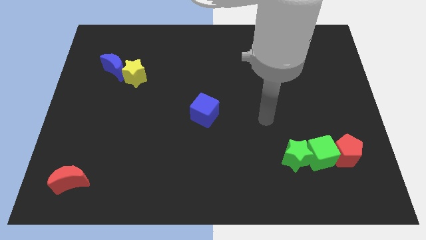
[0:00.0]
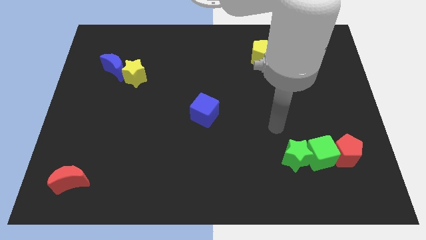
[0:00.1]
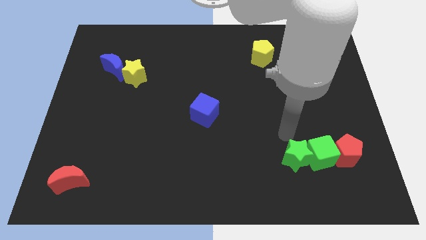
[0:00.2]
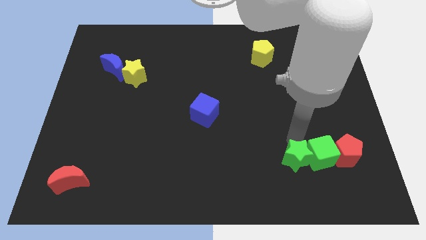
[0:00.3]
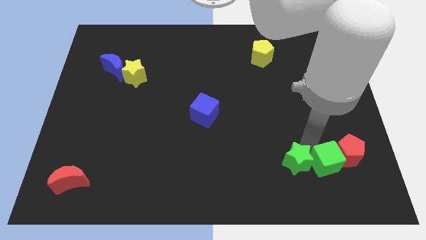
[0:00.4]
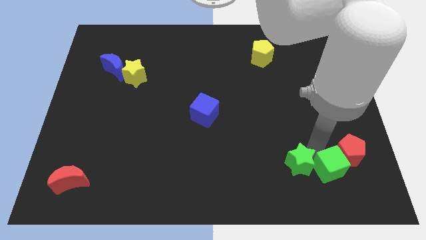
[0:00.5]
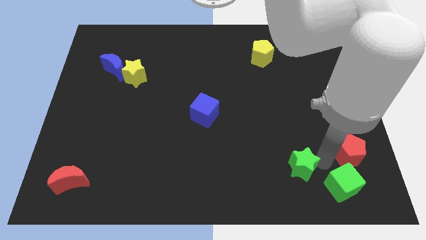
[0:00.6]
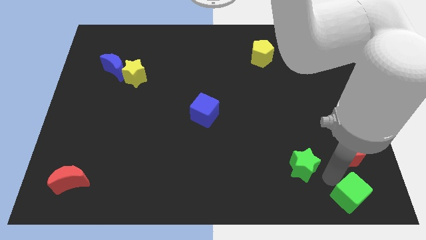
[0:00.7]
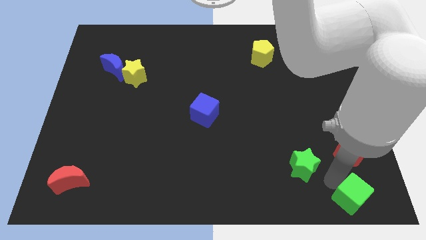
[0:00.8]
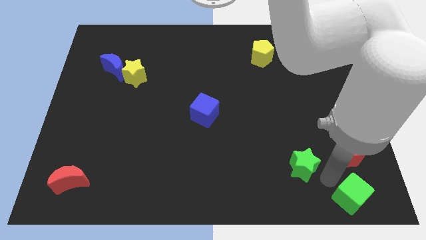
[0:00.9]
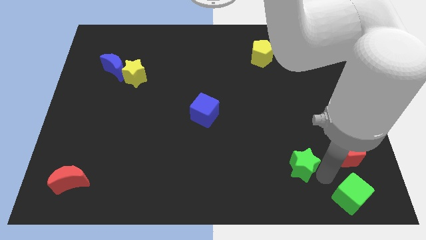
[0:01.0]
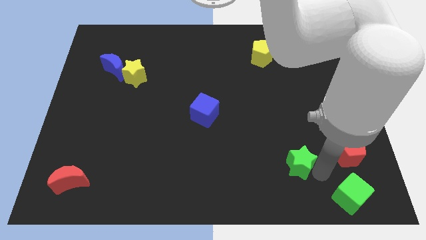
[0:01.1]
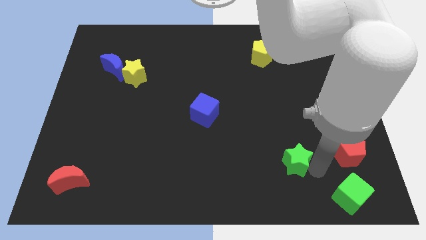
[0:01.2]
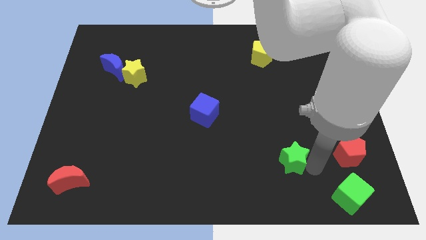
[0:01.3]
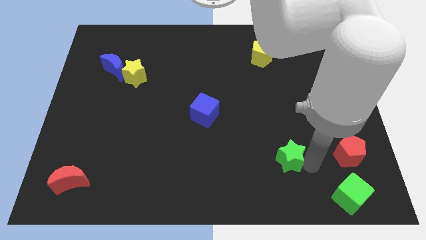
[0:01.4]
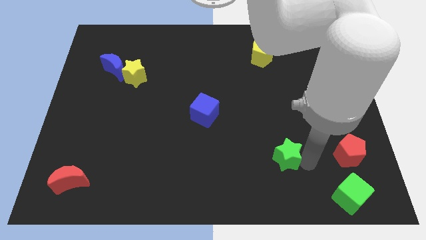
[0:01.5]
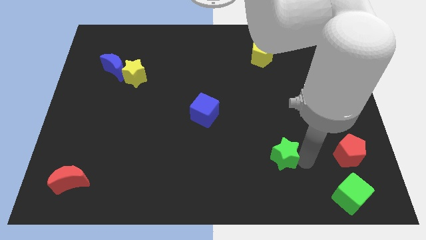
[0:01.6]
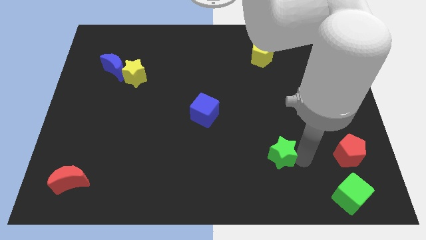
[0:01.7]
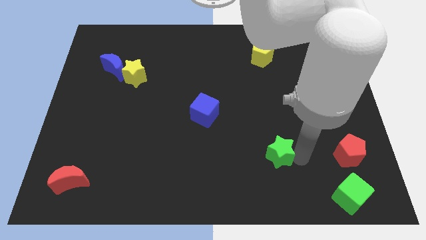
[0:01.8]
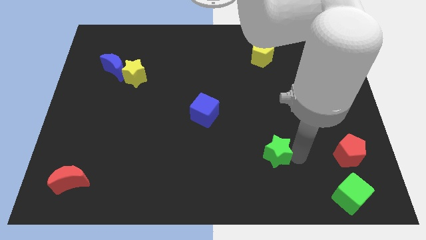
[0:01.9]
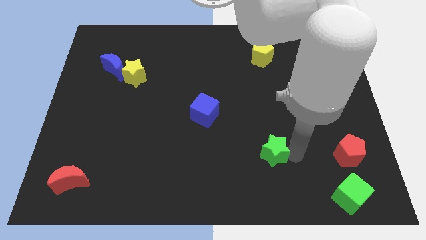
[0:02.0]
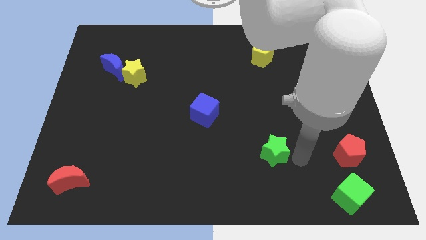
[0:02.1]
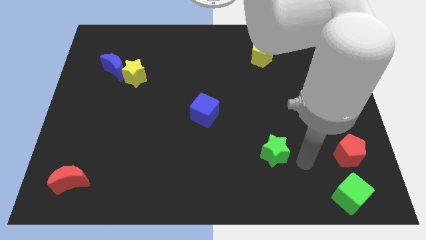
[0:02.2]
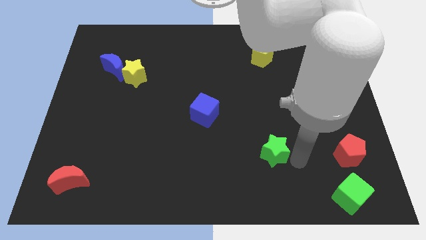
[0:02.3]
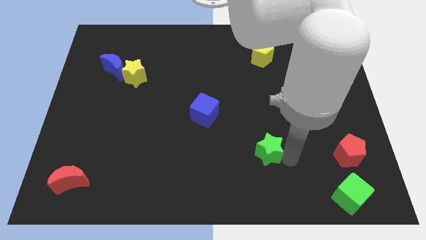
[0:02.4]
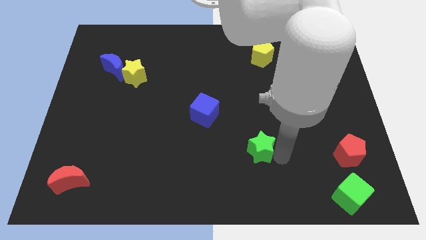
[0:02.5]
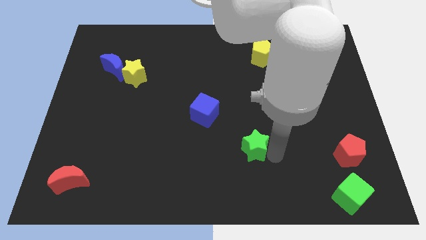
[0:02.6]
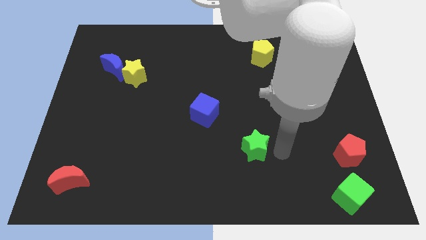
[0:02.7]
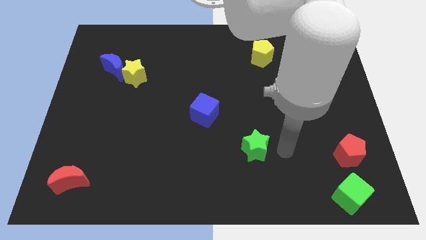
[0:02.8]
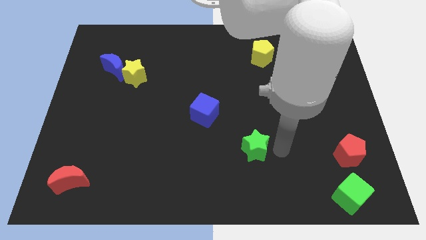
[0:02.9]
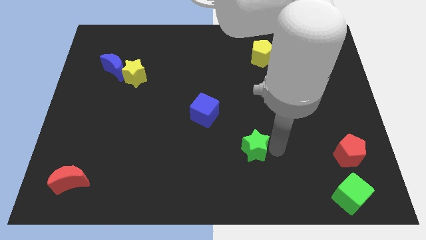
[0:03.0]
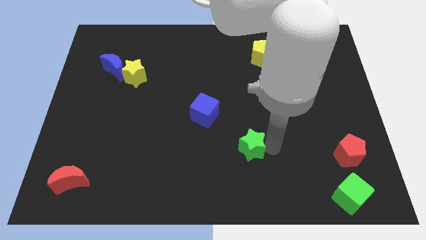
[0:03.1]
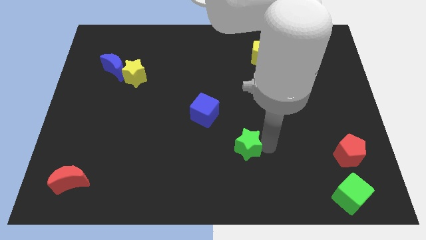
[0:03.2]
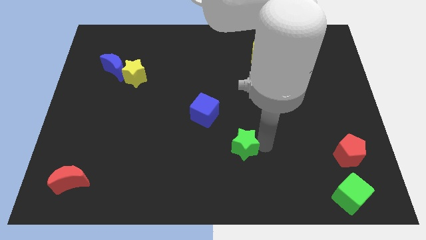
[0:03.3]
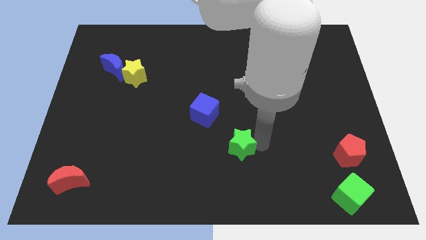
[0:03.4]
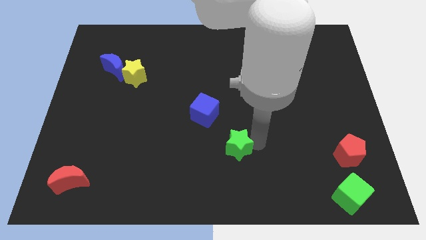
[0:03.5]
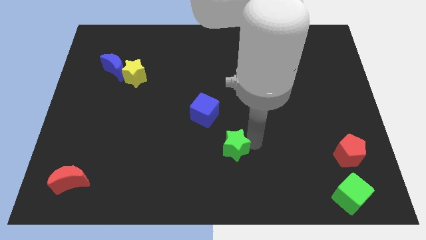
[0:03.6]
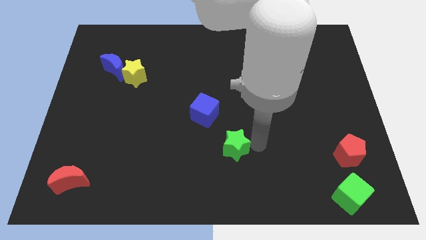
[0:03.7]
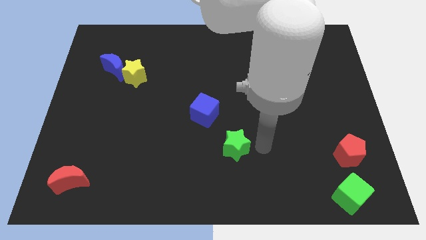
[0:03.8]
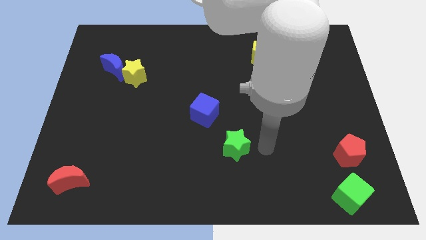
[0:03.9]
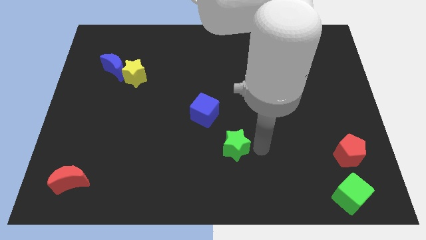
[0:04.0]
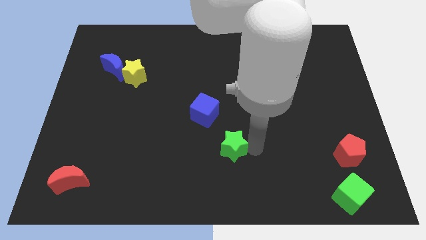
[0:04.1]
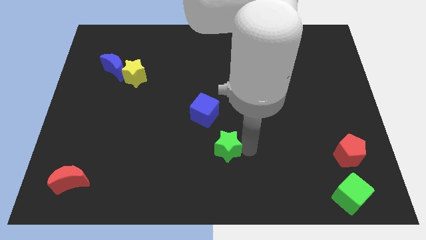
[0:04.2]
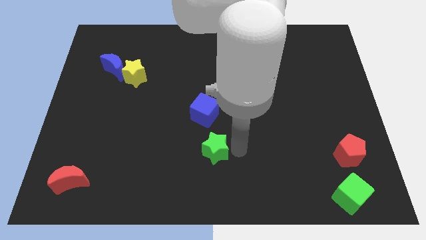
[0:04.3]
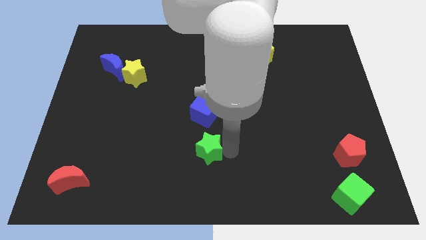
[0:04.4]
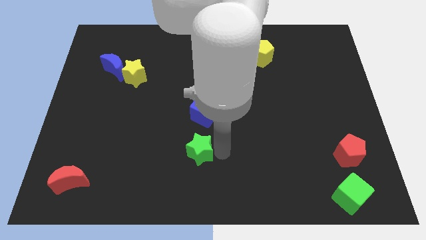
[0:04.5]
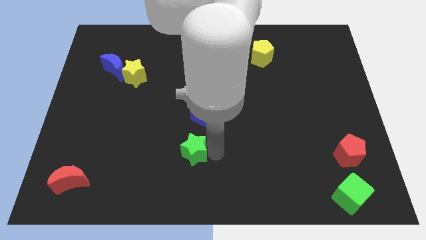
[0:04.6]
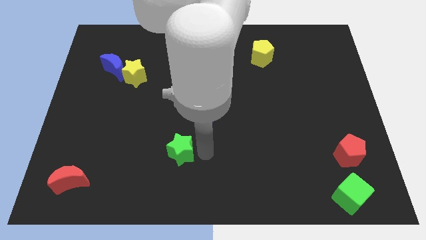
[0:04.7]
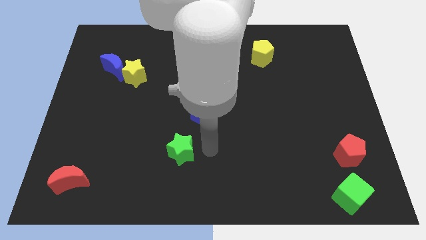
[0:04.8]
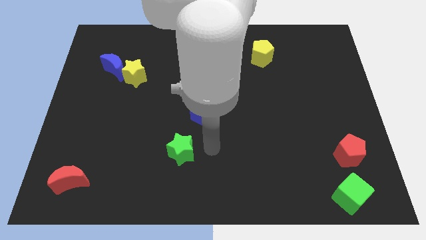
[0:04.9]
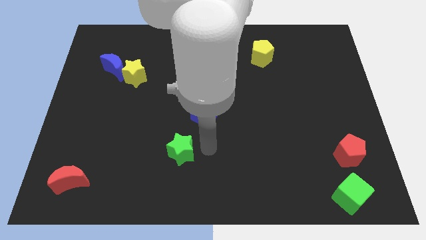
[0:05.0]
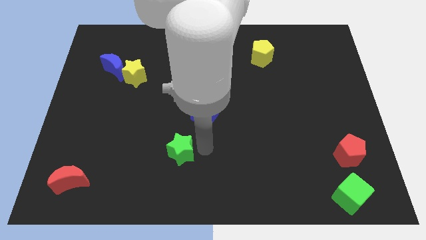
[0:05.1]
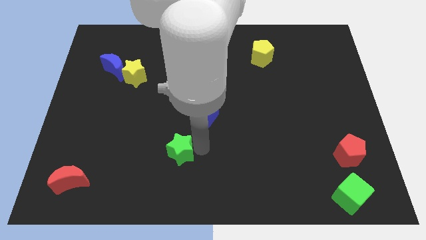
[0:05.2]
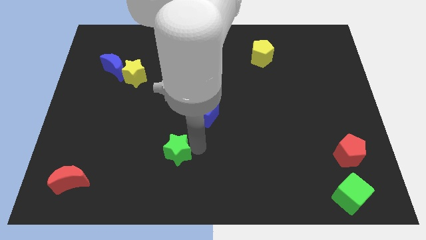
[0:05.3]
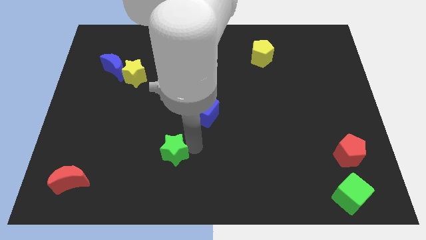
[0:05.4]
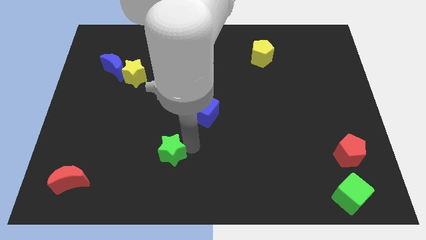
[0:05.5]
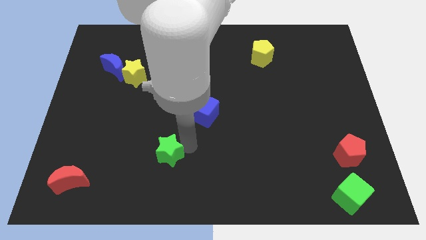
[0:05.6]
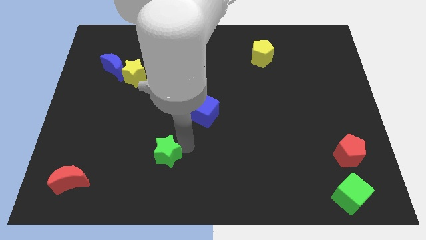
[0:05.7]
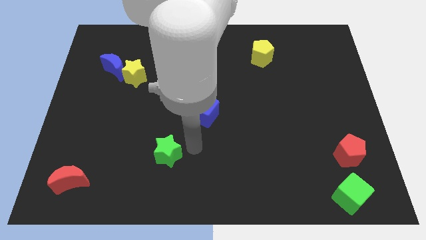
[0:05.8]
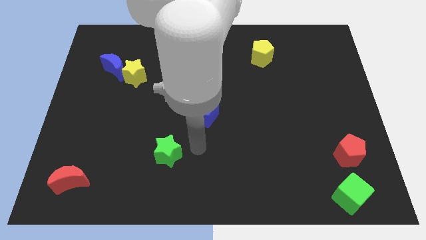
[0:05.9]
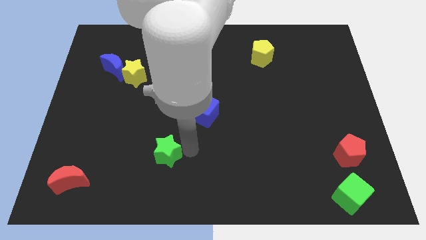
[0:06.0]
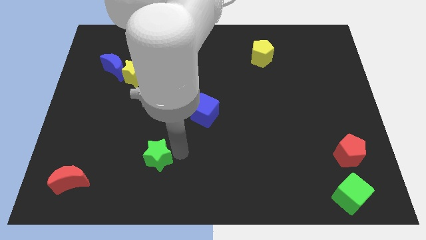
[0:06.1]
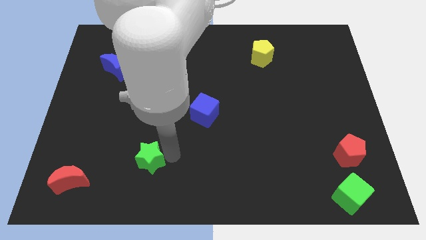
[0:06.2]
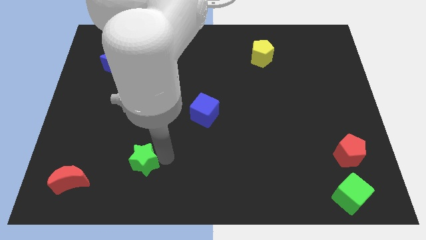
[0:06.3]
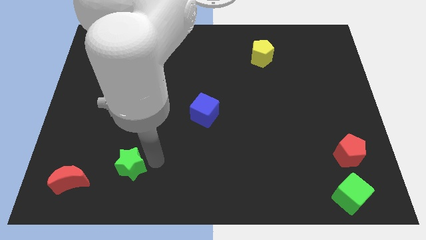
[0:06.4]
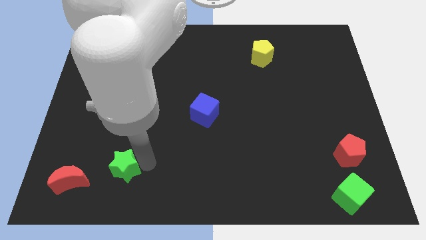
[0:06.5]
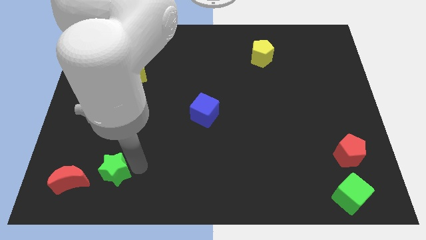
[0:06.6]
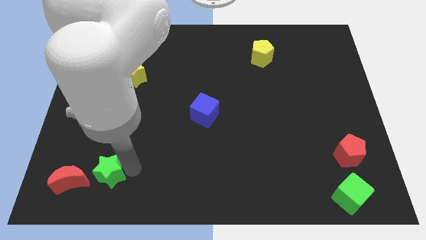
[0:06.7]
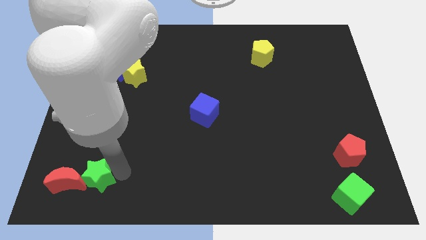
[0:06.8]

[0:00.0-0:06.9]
slide the green star next to the red moon

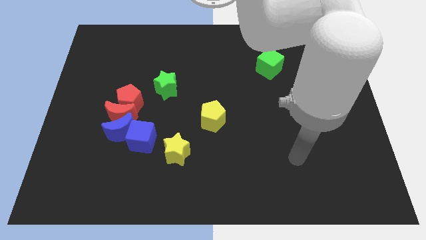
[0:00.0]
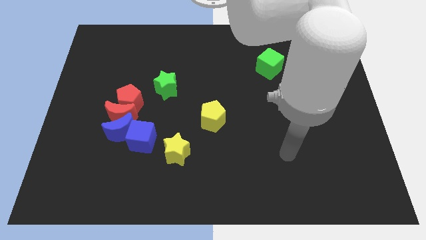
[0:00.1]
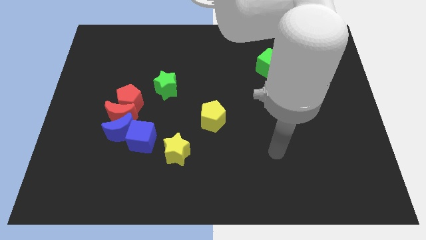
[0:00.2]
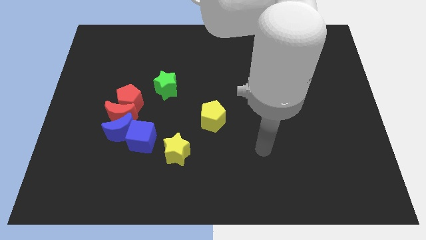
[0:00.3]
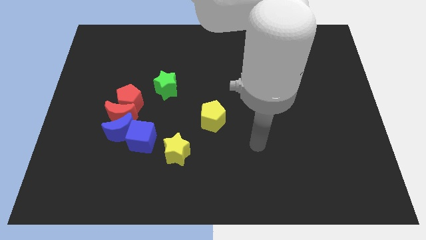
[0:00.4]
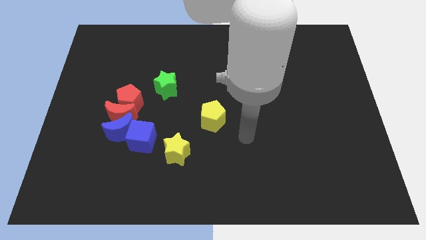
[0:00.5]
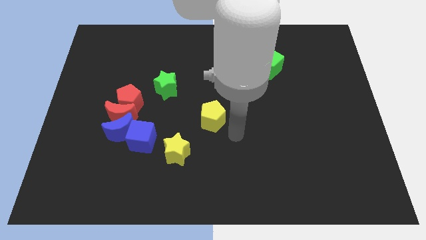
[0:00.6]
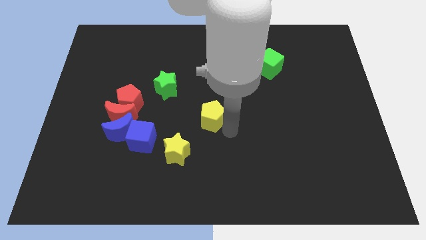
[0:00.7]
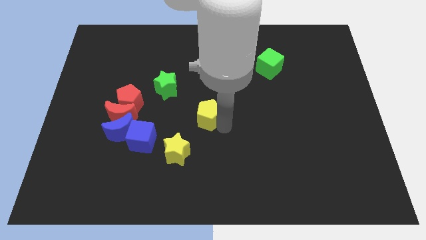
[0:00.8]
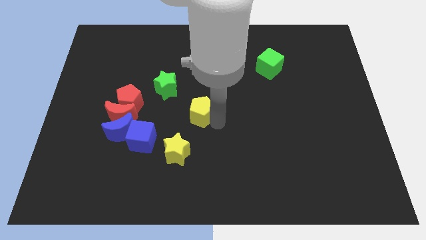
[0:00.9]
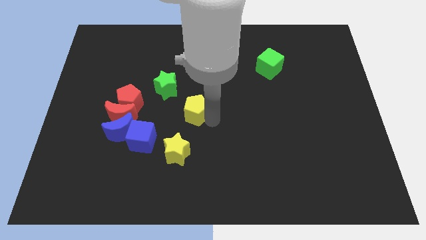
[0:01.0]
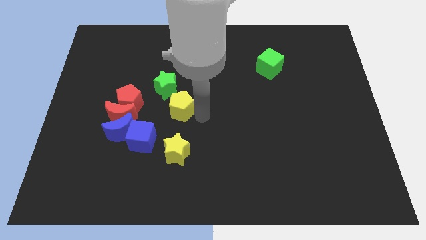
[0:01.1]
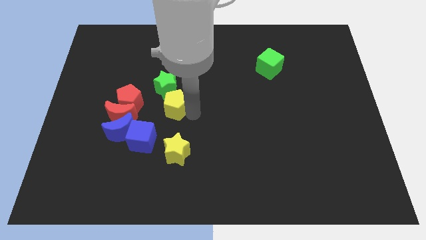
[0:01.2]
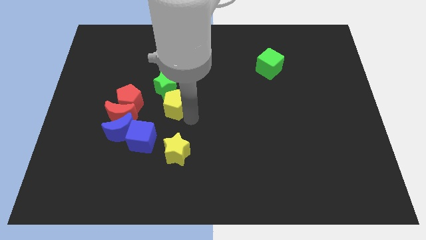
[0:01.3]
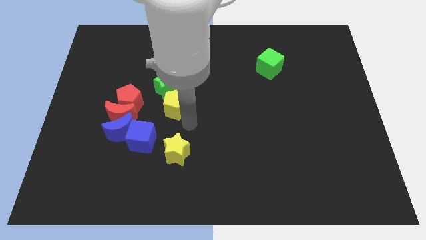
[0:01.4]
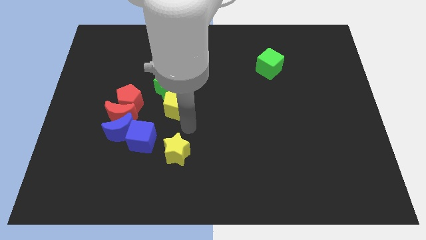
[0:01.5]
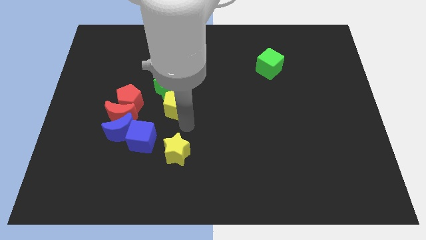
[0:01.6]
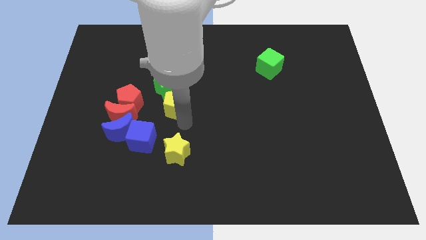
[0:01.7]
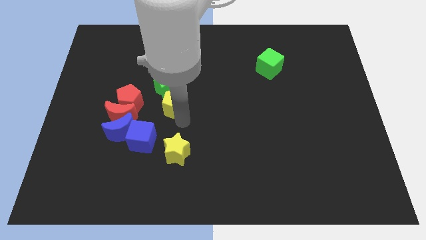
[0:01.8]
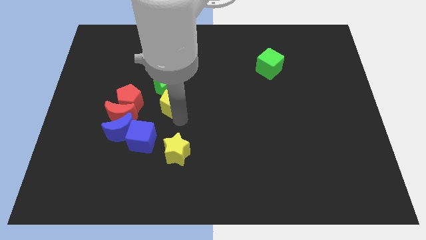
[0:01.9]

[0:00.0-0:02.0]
put the yellow pentagon close to the green star
